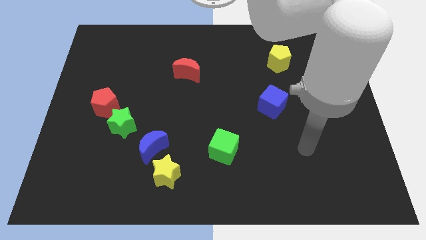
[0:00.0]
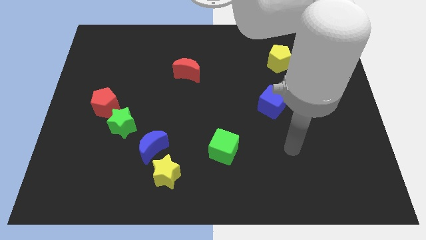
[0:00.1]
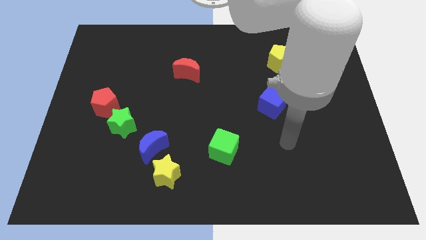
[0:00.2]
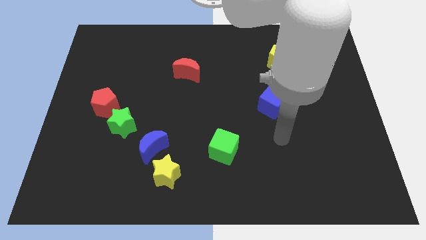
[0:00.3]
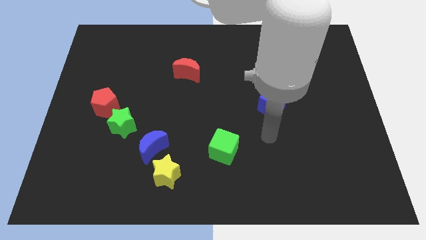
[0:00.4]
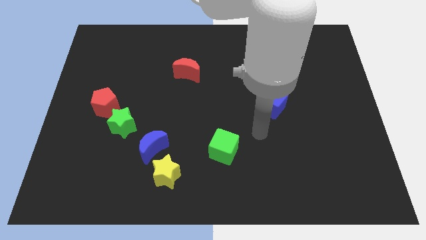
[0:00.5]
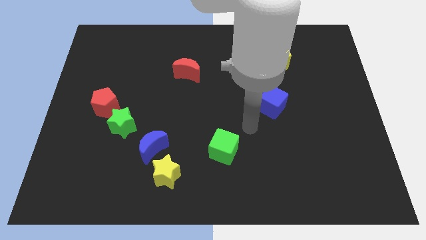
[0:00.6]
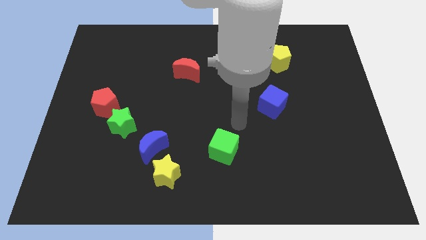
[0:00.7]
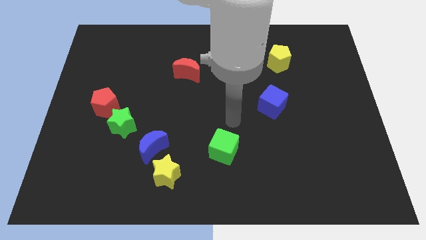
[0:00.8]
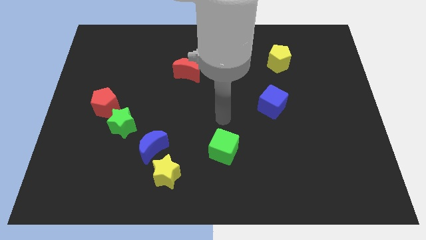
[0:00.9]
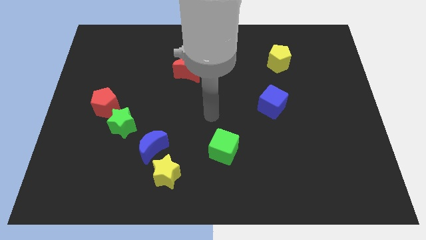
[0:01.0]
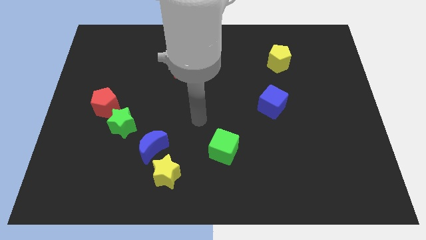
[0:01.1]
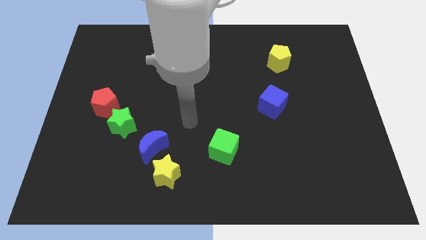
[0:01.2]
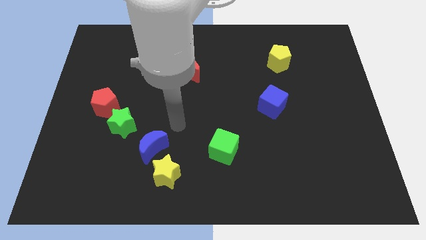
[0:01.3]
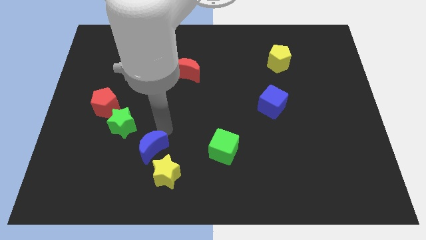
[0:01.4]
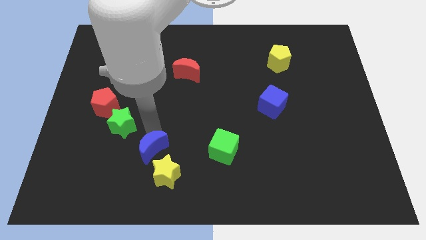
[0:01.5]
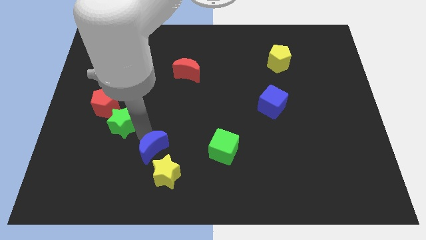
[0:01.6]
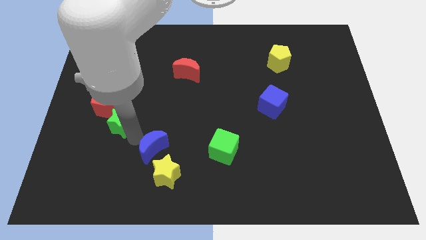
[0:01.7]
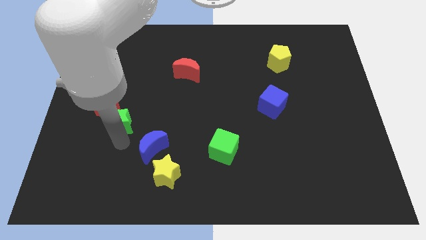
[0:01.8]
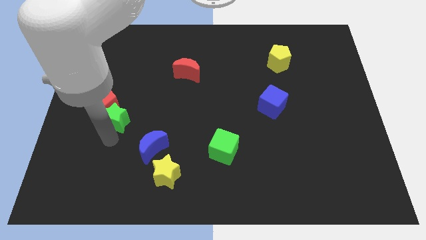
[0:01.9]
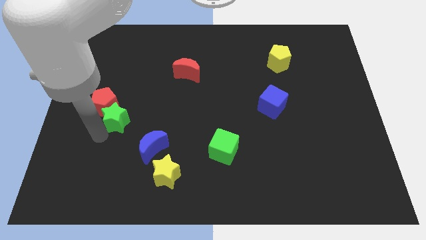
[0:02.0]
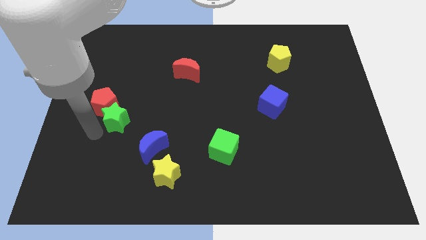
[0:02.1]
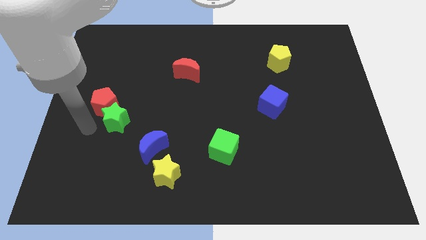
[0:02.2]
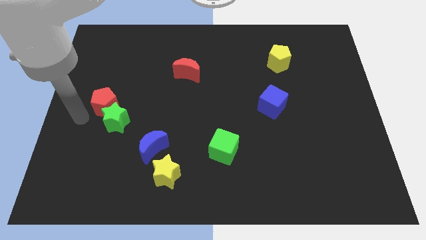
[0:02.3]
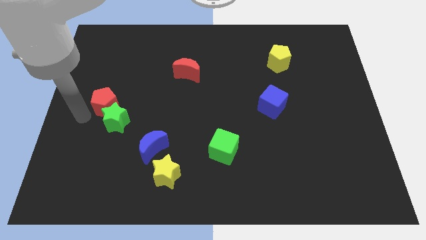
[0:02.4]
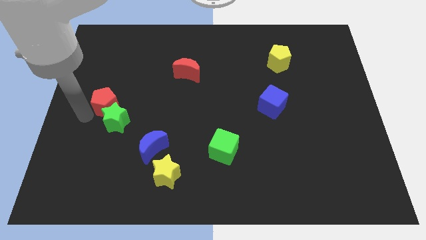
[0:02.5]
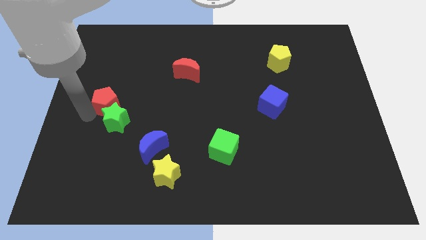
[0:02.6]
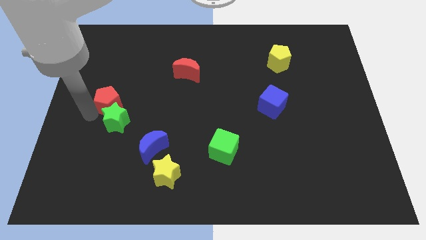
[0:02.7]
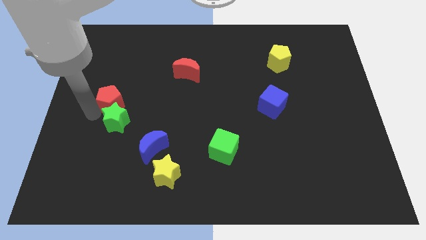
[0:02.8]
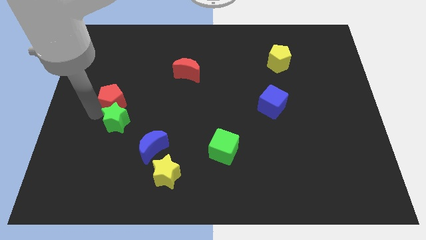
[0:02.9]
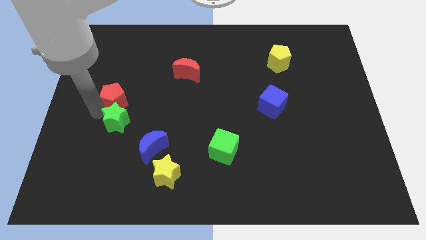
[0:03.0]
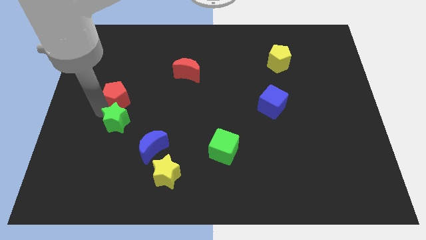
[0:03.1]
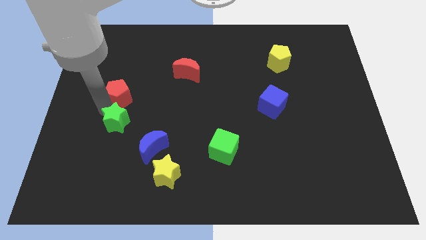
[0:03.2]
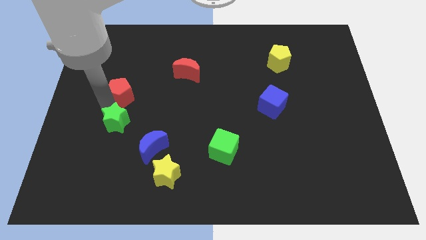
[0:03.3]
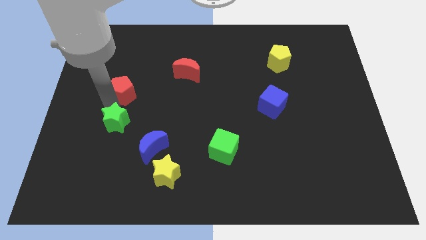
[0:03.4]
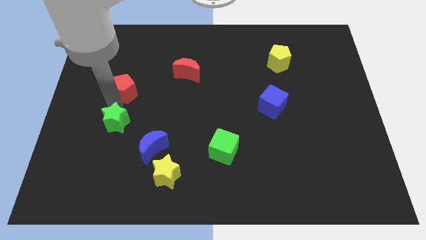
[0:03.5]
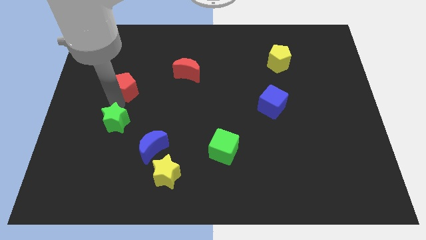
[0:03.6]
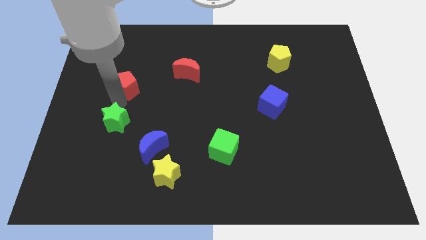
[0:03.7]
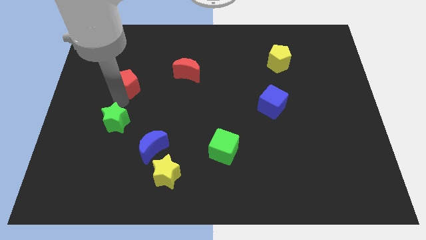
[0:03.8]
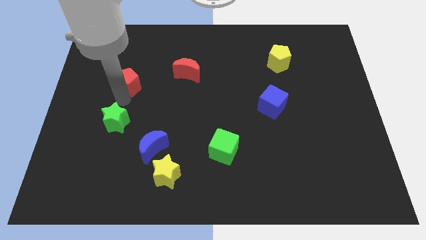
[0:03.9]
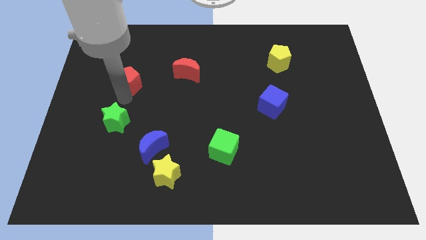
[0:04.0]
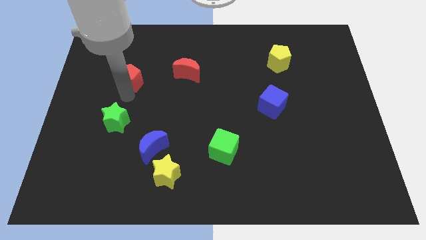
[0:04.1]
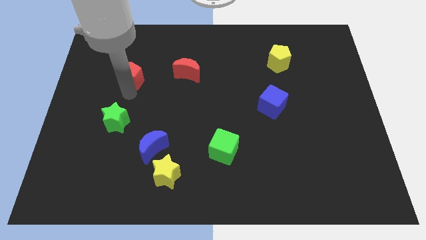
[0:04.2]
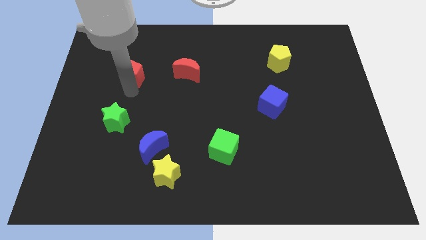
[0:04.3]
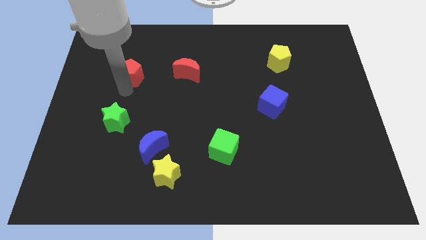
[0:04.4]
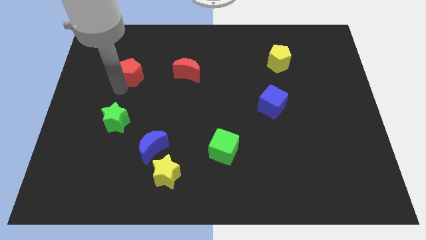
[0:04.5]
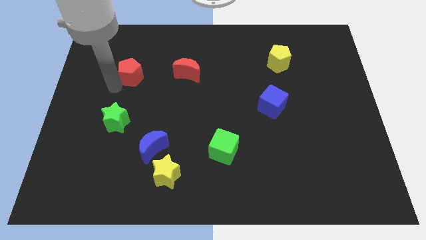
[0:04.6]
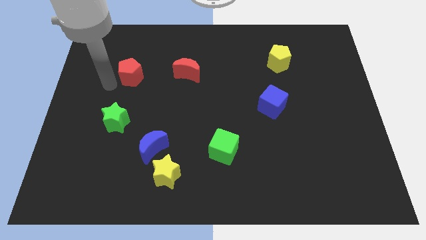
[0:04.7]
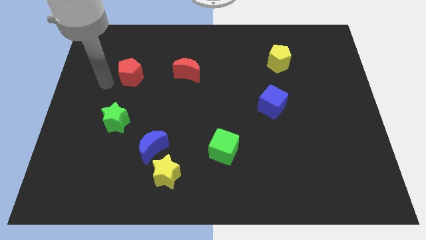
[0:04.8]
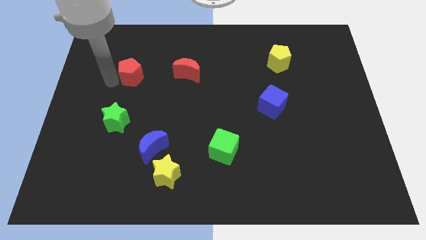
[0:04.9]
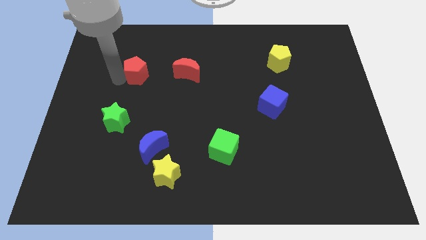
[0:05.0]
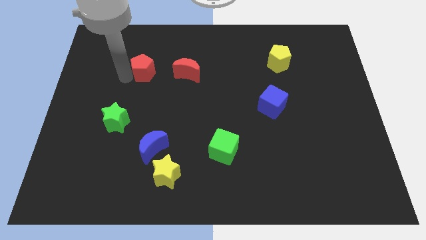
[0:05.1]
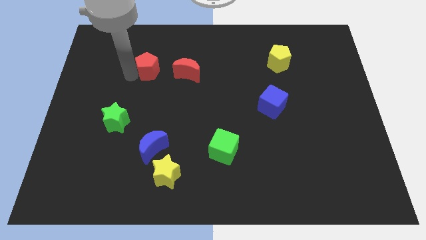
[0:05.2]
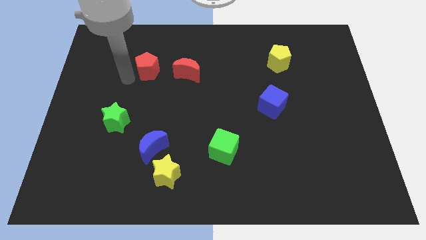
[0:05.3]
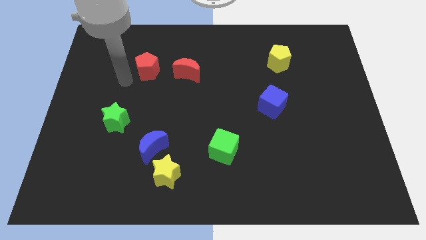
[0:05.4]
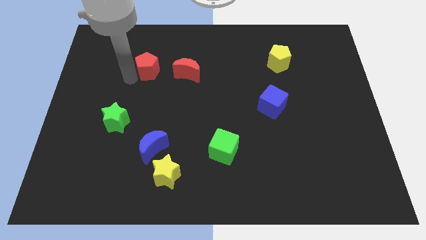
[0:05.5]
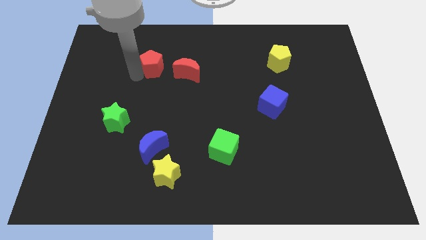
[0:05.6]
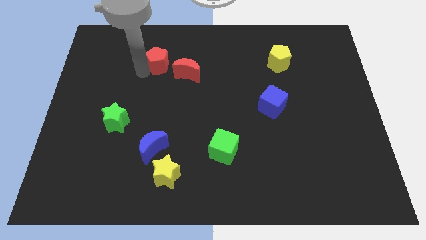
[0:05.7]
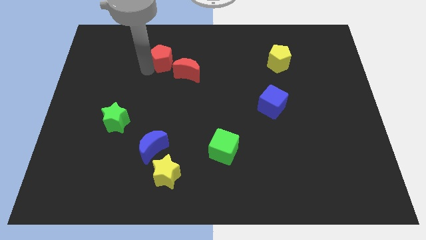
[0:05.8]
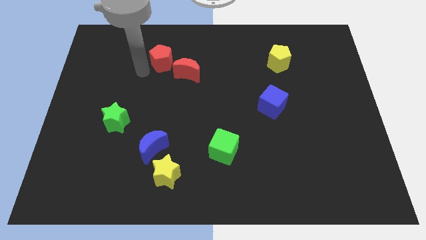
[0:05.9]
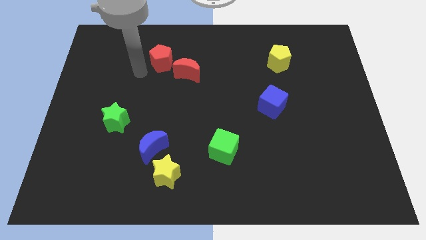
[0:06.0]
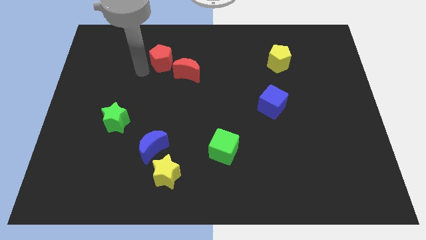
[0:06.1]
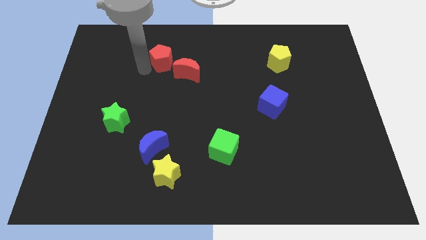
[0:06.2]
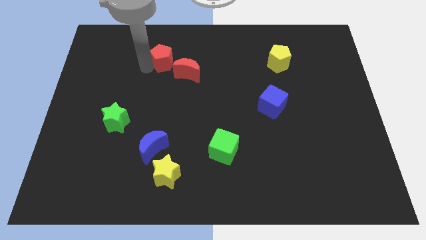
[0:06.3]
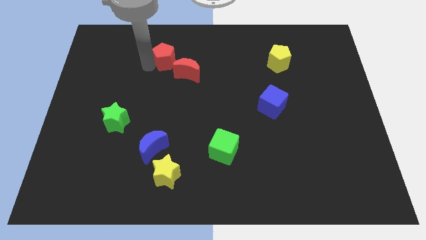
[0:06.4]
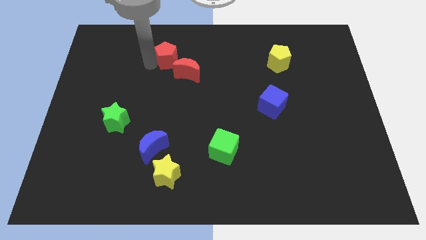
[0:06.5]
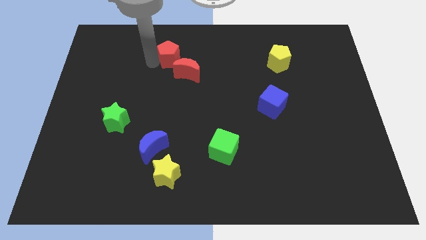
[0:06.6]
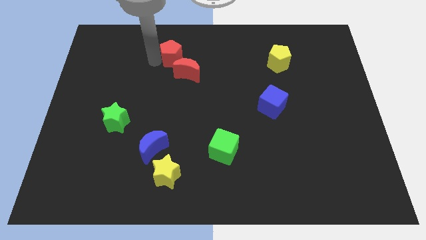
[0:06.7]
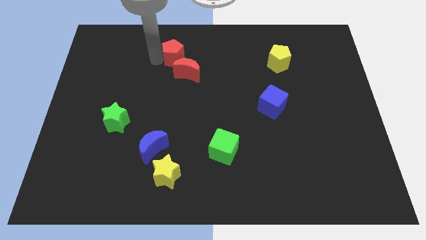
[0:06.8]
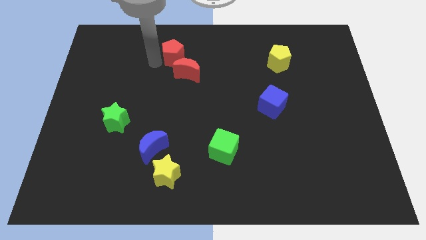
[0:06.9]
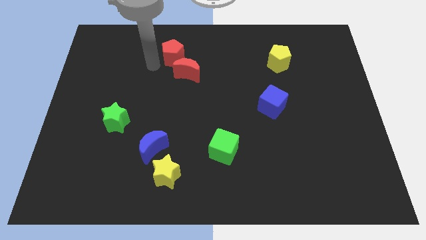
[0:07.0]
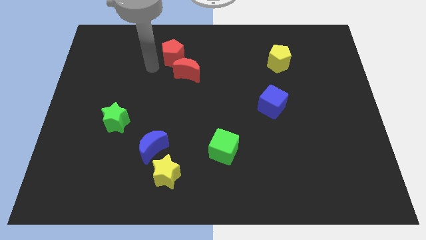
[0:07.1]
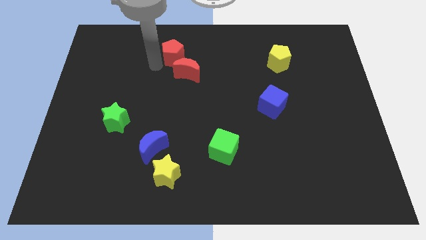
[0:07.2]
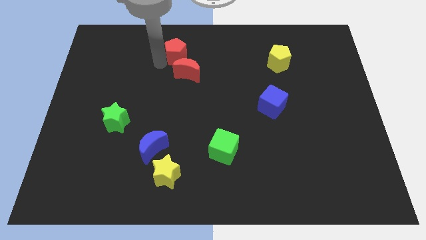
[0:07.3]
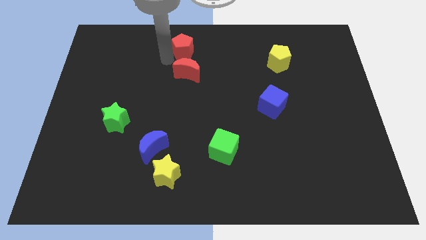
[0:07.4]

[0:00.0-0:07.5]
slide the red pentagon to the towards your base
